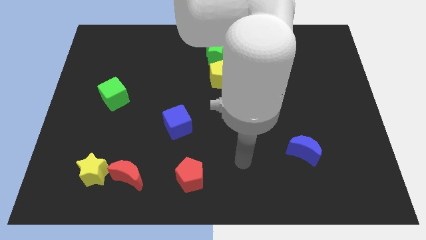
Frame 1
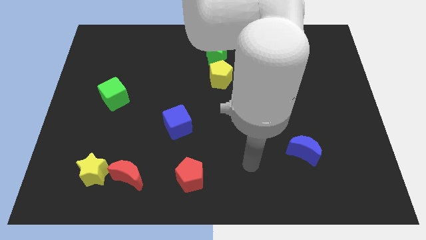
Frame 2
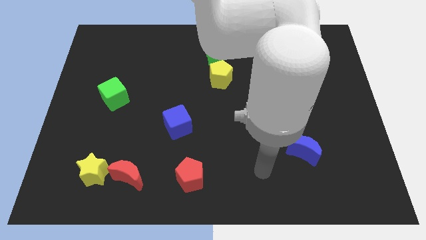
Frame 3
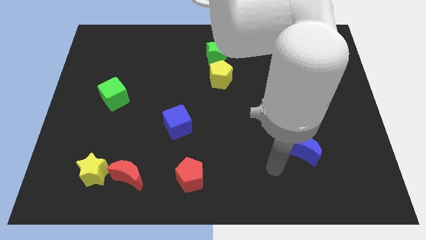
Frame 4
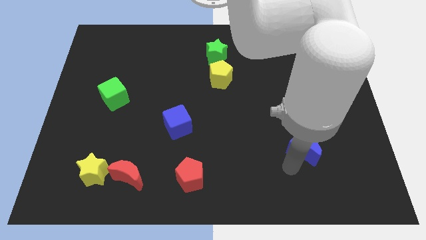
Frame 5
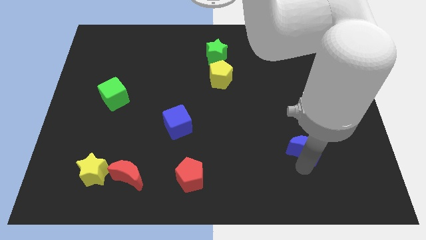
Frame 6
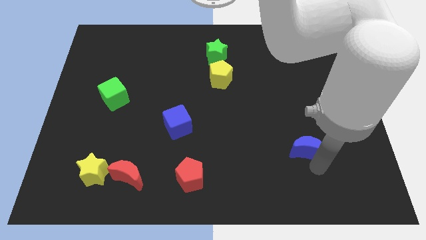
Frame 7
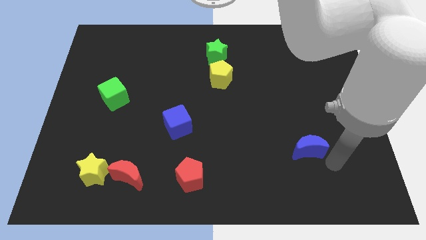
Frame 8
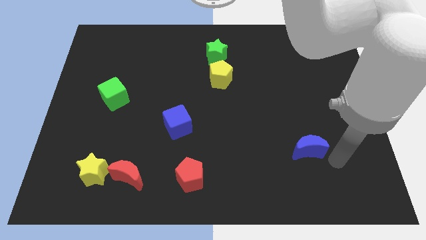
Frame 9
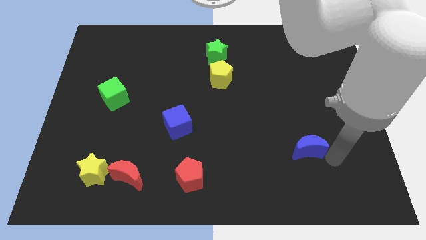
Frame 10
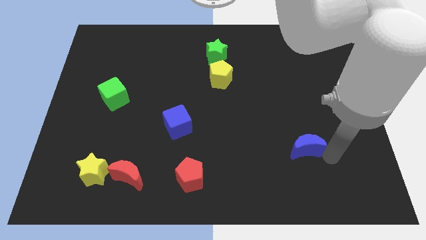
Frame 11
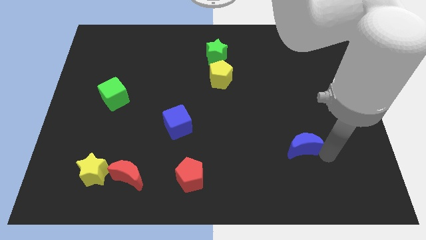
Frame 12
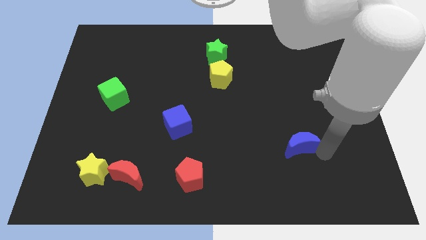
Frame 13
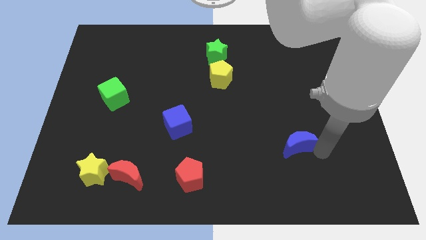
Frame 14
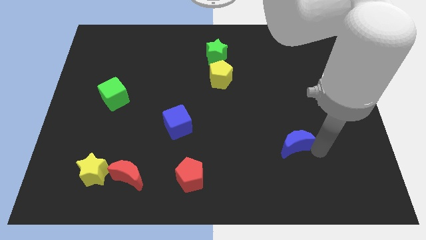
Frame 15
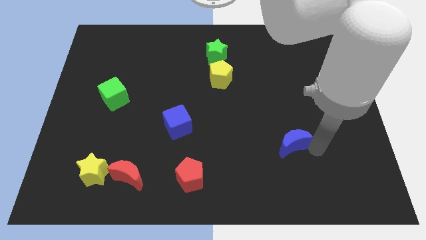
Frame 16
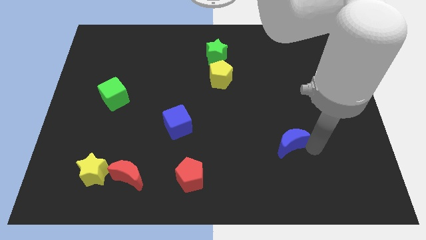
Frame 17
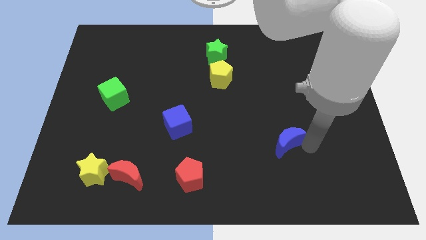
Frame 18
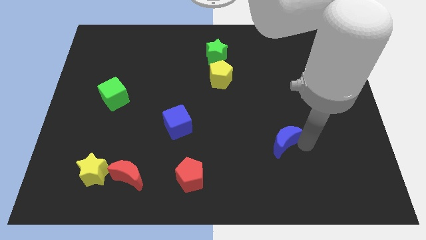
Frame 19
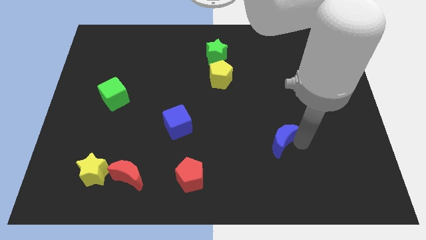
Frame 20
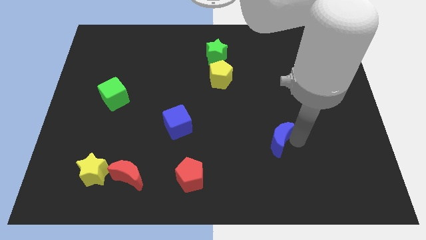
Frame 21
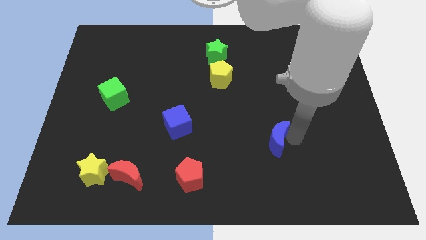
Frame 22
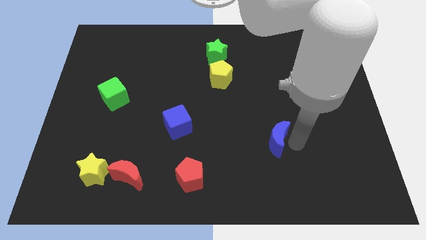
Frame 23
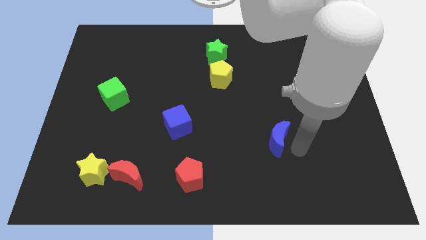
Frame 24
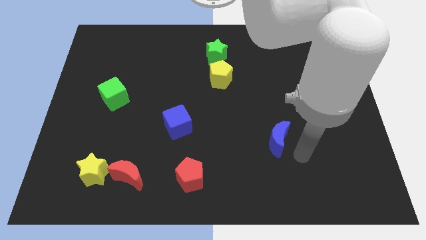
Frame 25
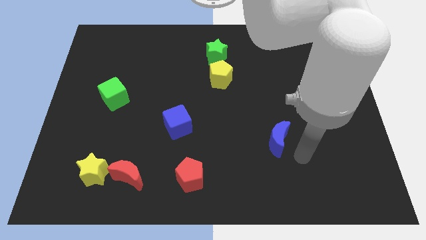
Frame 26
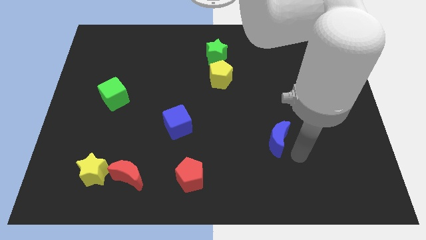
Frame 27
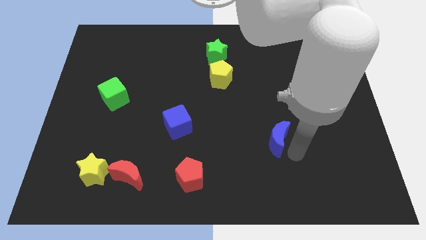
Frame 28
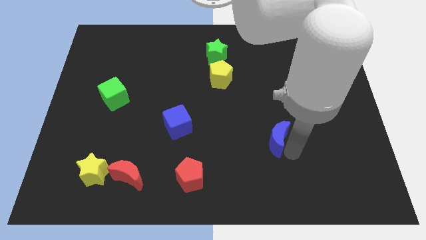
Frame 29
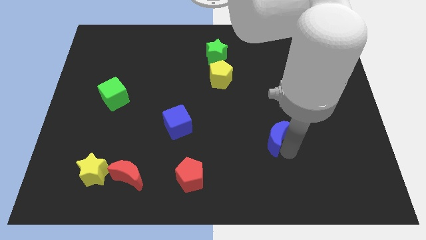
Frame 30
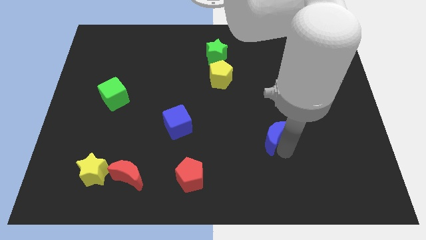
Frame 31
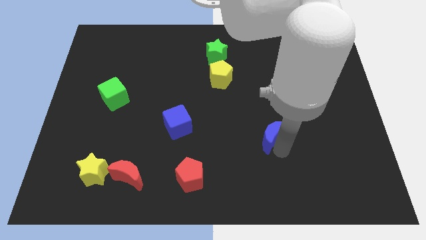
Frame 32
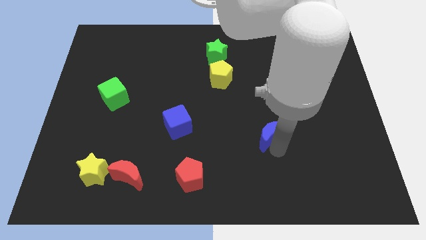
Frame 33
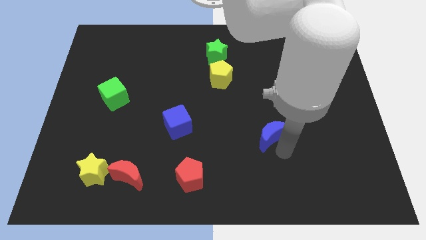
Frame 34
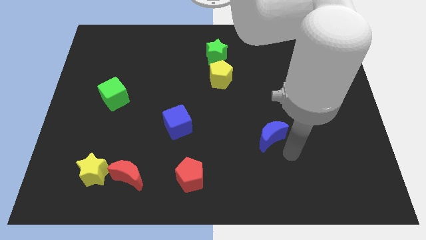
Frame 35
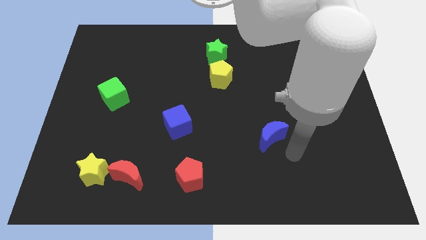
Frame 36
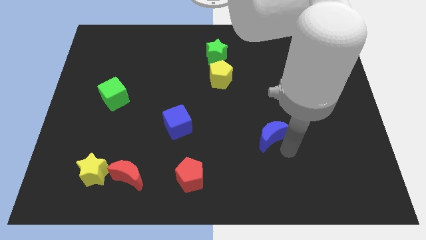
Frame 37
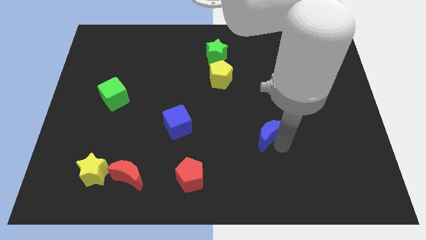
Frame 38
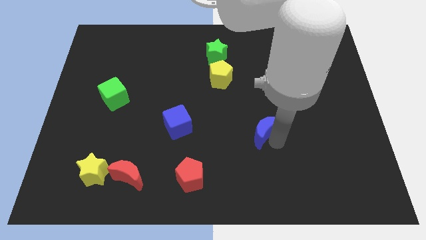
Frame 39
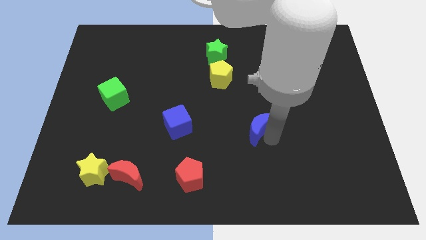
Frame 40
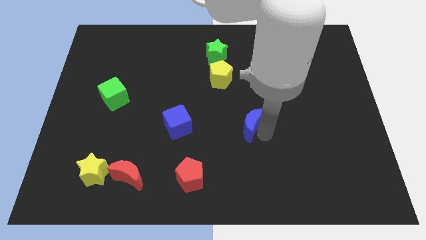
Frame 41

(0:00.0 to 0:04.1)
push the blue moon to the center of the board

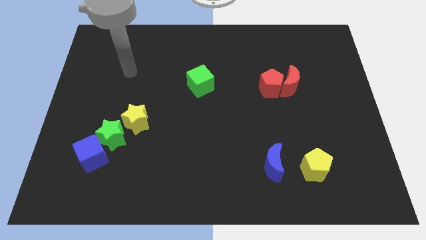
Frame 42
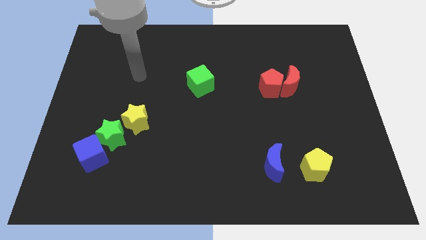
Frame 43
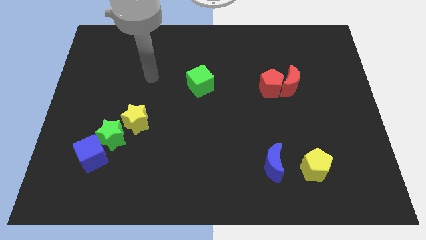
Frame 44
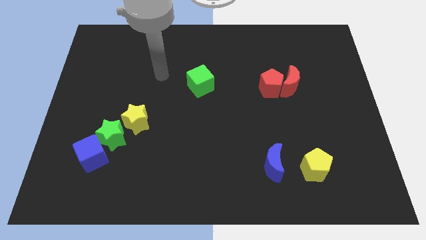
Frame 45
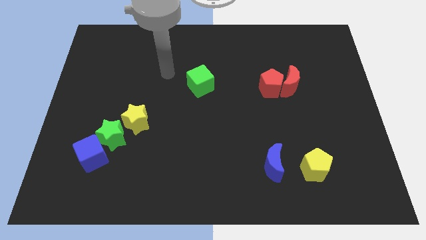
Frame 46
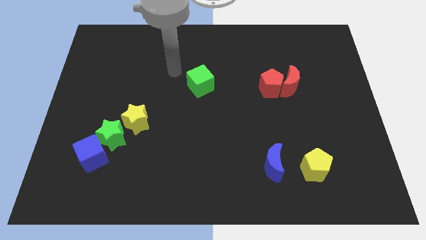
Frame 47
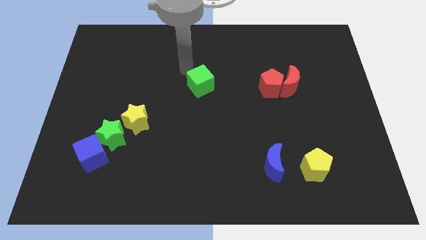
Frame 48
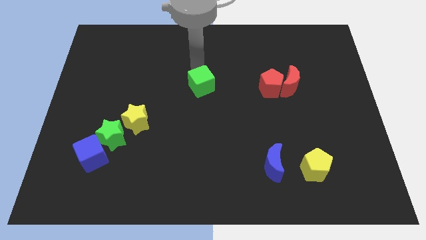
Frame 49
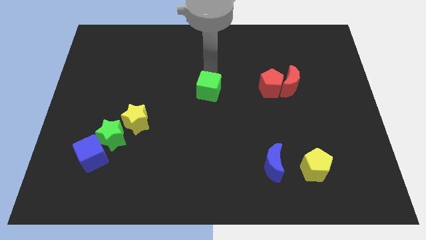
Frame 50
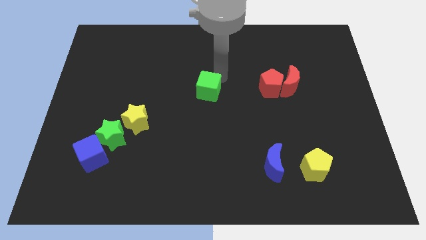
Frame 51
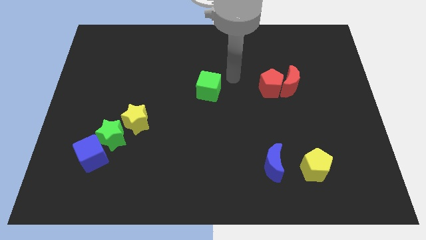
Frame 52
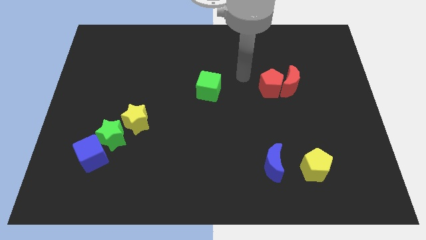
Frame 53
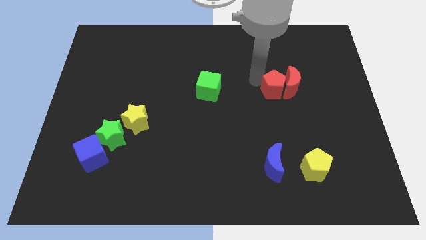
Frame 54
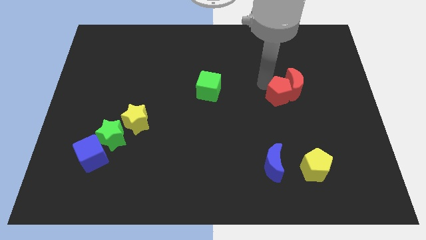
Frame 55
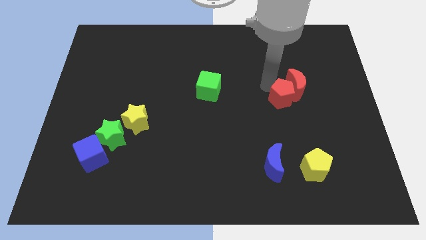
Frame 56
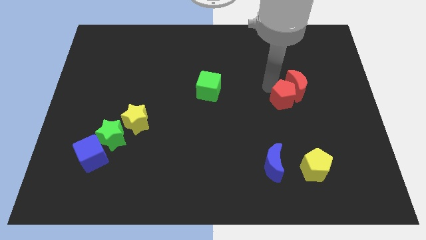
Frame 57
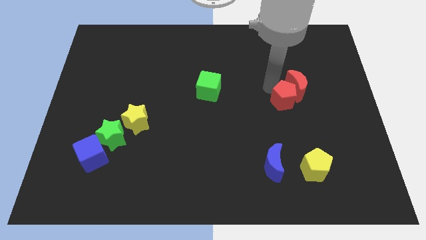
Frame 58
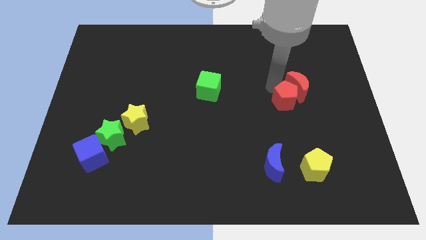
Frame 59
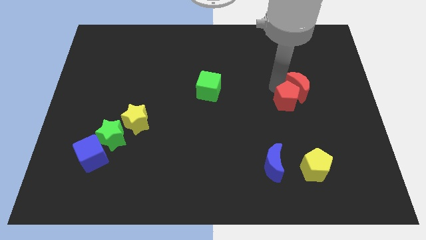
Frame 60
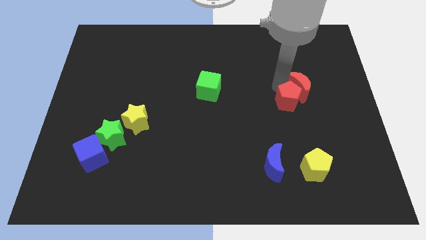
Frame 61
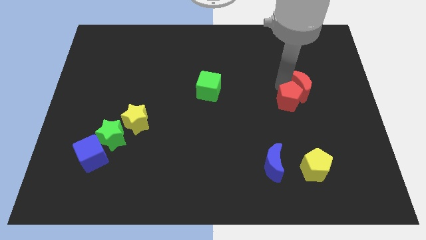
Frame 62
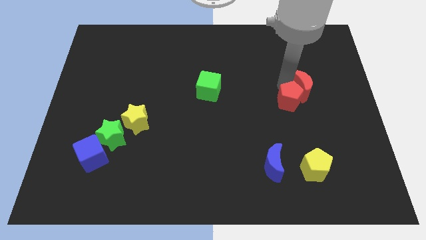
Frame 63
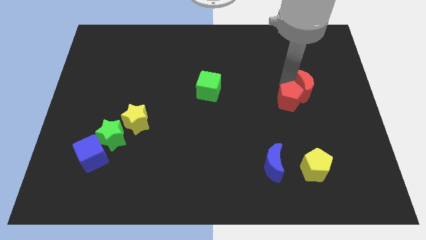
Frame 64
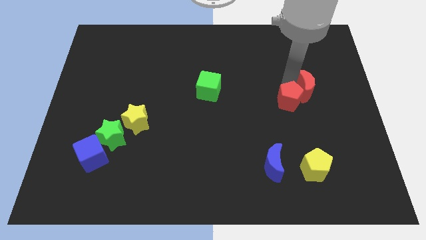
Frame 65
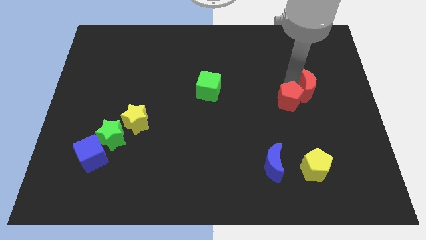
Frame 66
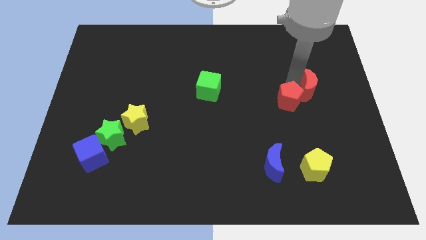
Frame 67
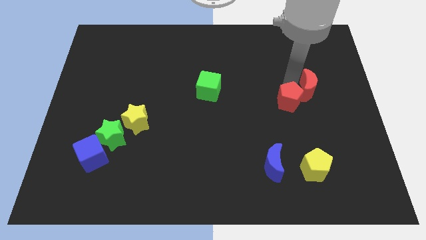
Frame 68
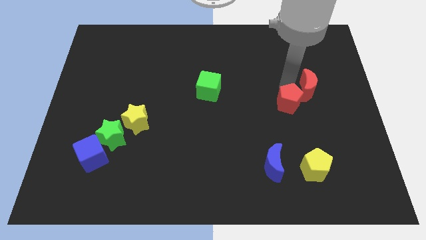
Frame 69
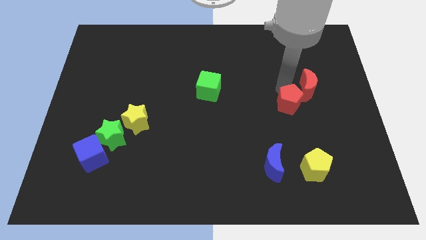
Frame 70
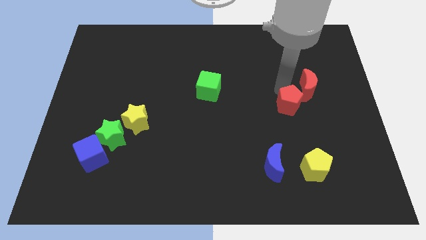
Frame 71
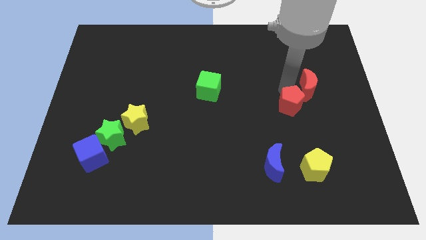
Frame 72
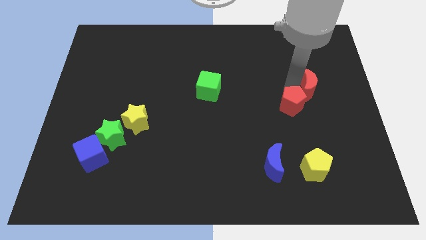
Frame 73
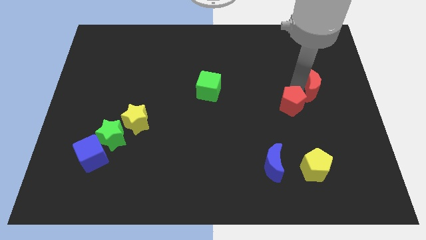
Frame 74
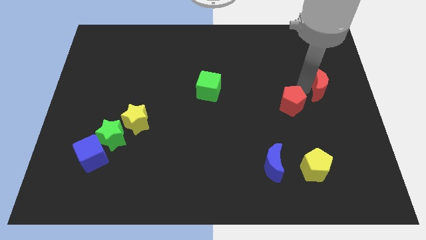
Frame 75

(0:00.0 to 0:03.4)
push the red moon to the right side of the board

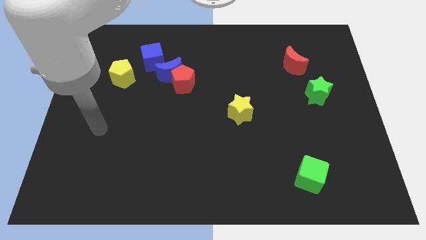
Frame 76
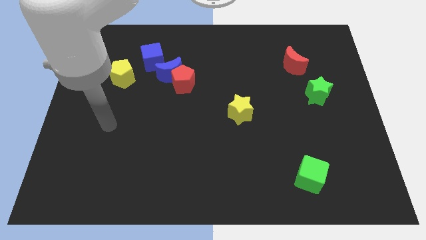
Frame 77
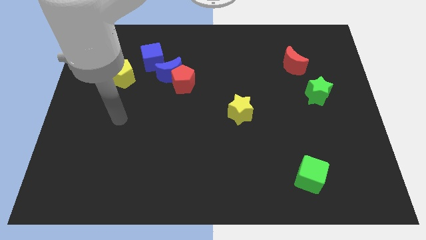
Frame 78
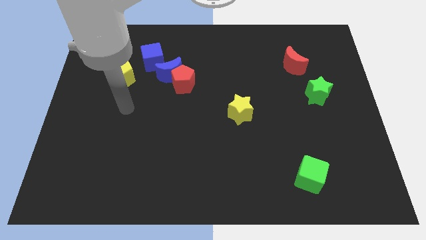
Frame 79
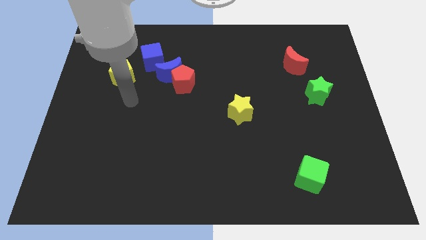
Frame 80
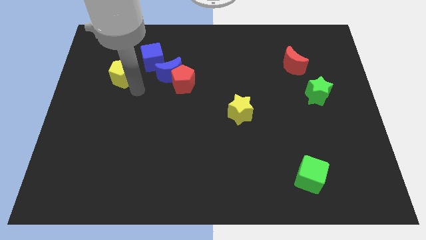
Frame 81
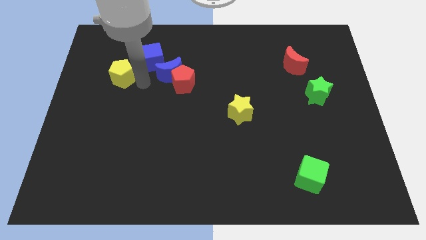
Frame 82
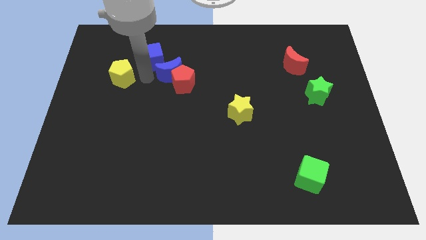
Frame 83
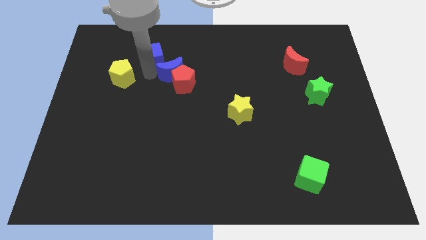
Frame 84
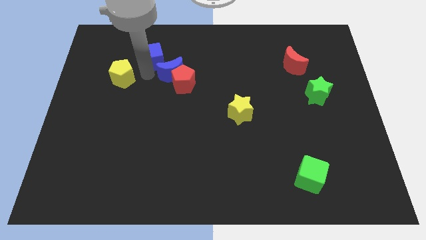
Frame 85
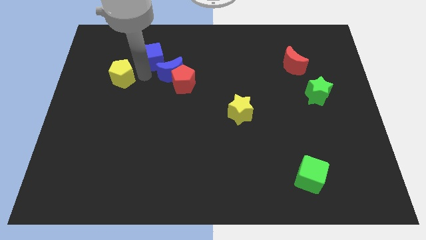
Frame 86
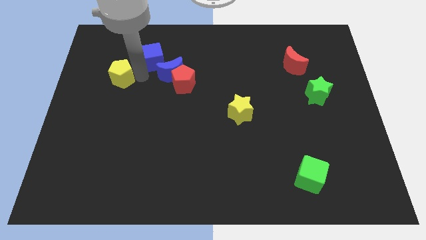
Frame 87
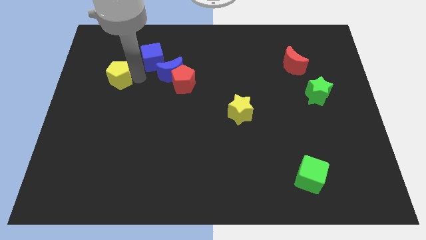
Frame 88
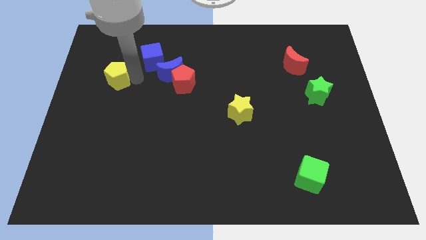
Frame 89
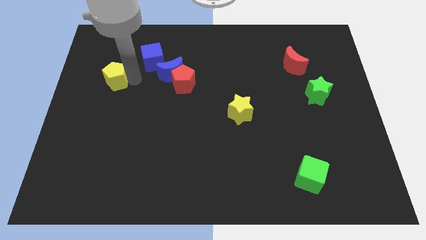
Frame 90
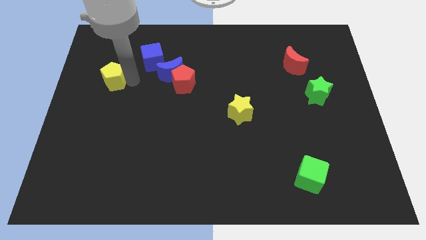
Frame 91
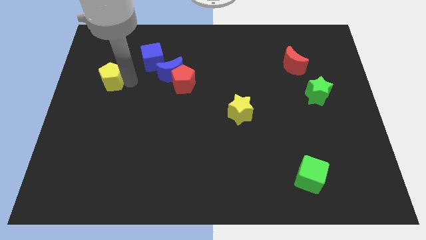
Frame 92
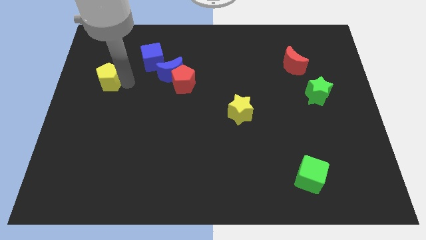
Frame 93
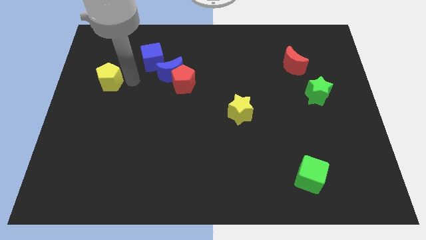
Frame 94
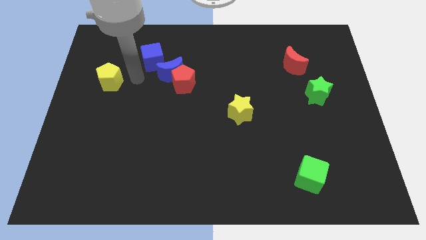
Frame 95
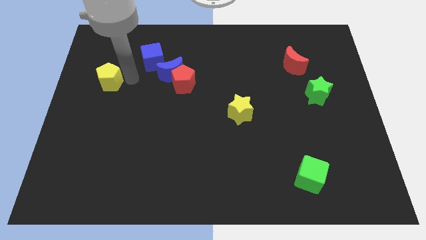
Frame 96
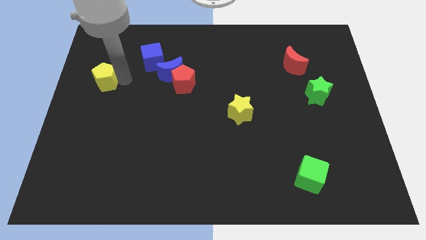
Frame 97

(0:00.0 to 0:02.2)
slide the yellow pentagon to the left side
